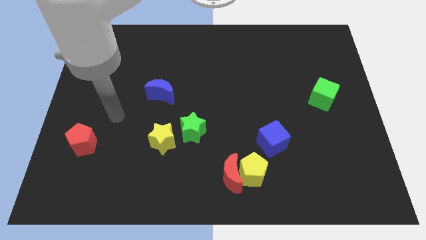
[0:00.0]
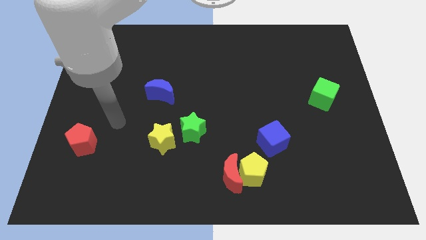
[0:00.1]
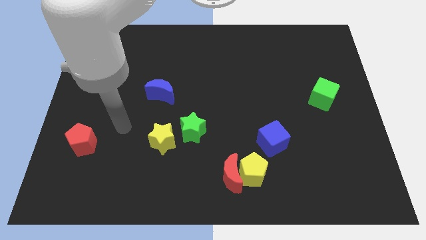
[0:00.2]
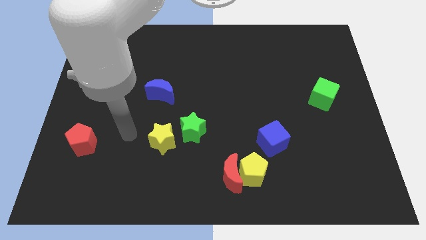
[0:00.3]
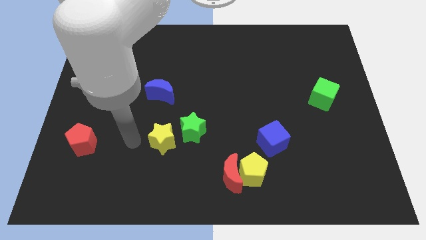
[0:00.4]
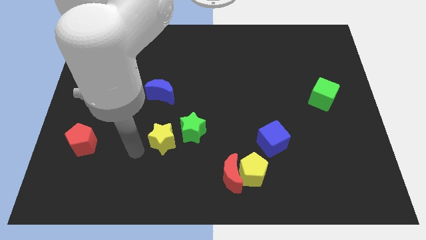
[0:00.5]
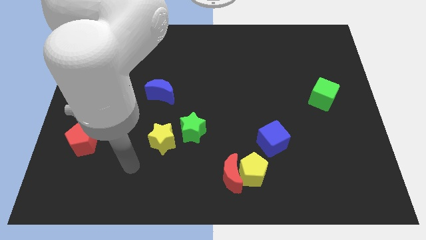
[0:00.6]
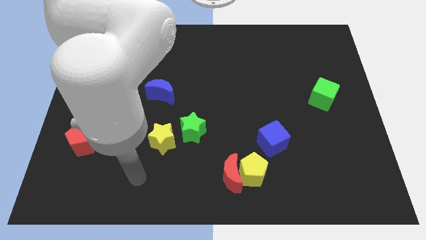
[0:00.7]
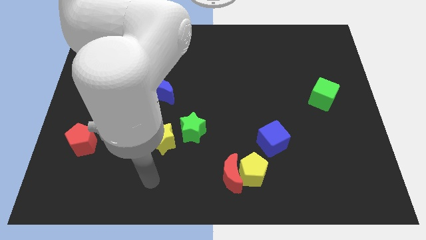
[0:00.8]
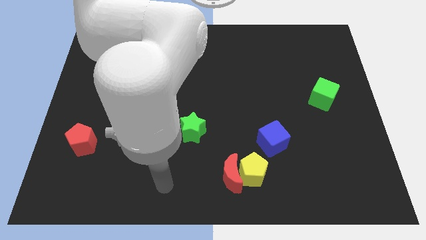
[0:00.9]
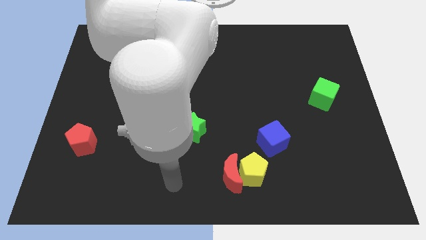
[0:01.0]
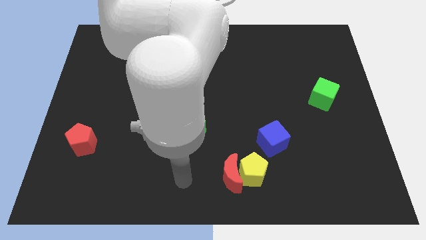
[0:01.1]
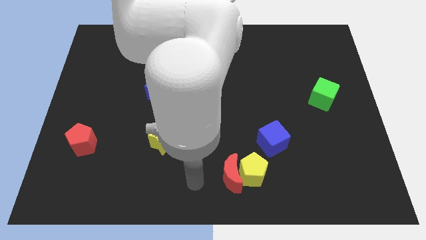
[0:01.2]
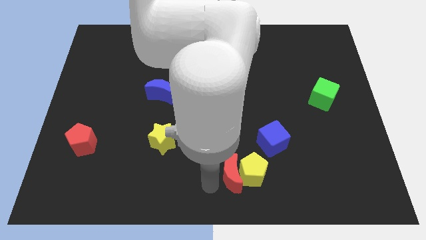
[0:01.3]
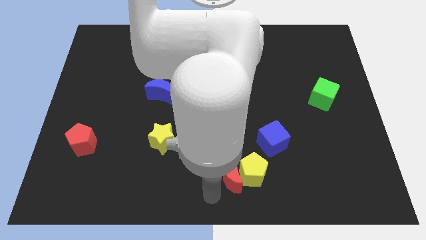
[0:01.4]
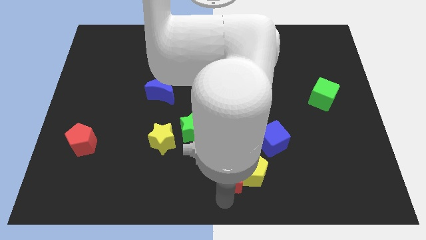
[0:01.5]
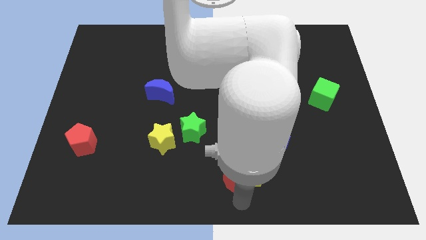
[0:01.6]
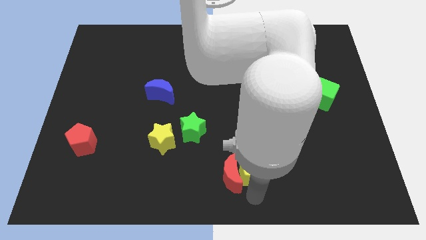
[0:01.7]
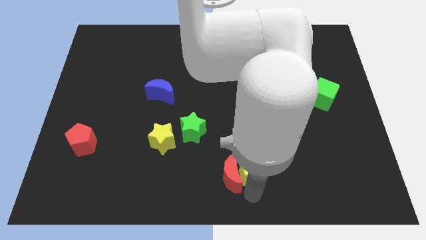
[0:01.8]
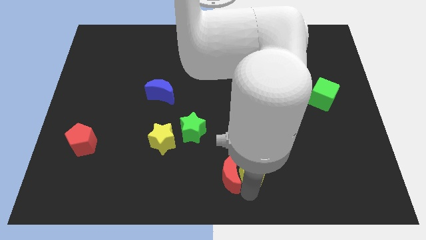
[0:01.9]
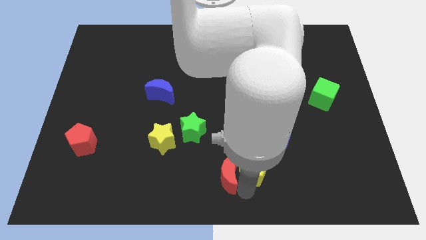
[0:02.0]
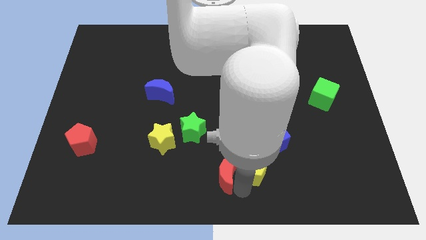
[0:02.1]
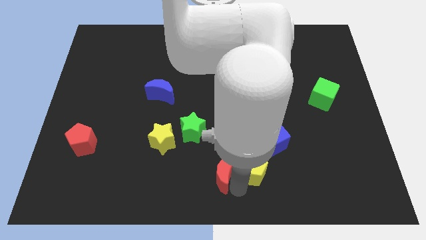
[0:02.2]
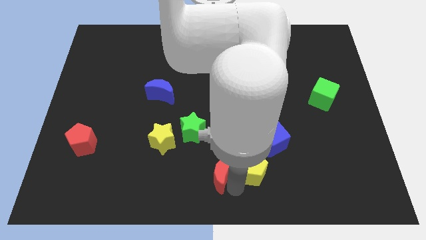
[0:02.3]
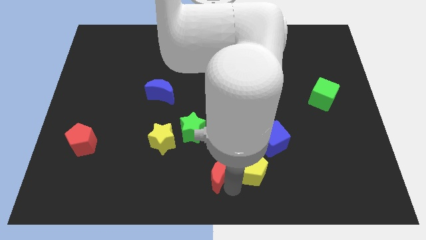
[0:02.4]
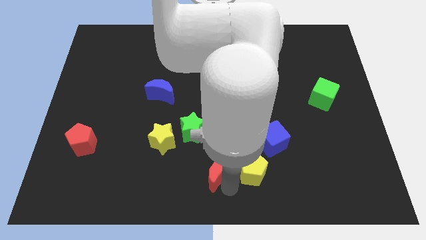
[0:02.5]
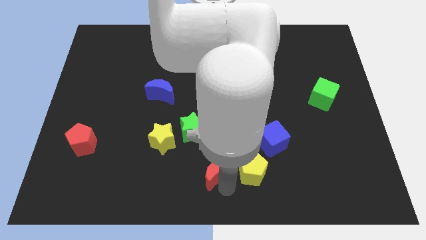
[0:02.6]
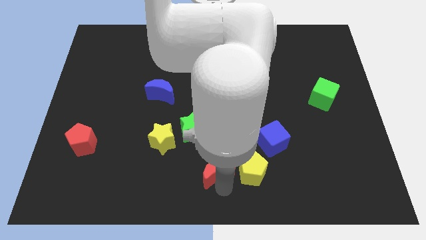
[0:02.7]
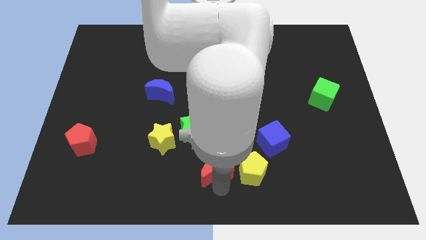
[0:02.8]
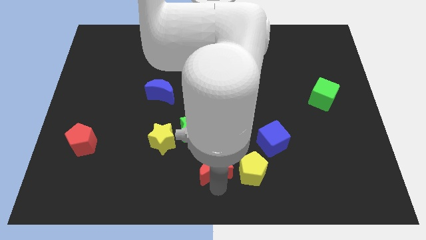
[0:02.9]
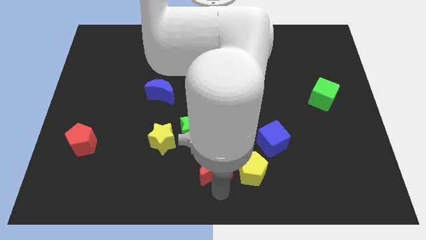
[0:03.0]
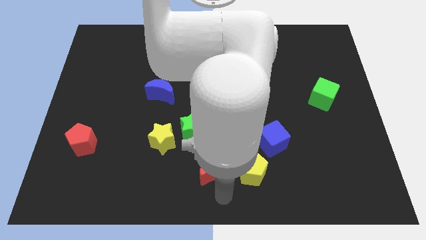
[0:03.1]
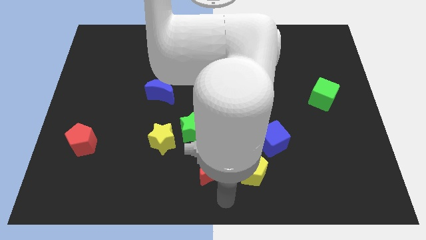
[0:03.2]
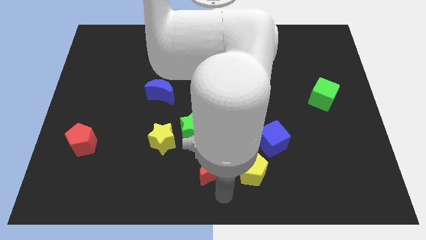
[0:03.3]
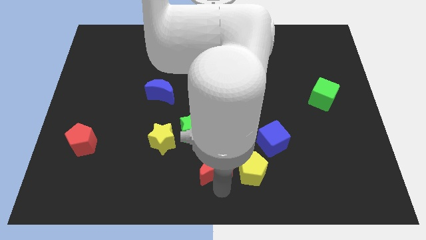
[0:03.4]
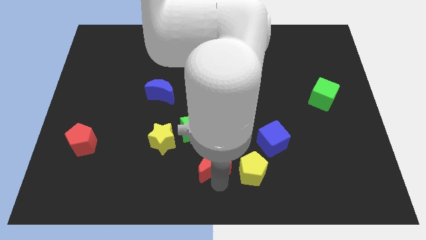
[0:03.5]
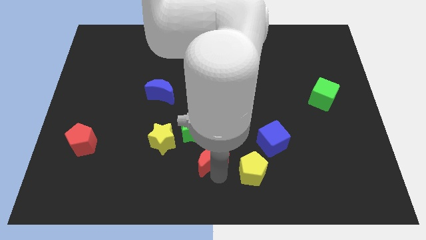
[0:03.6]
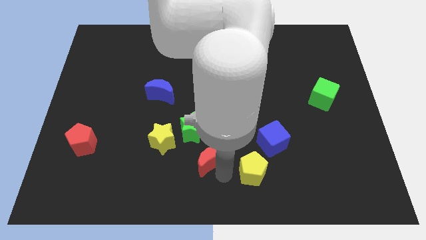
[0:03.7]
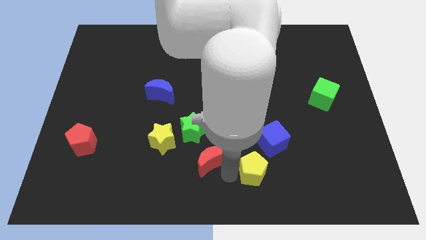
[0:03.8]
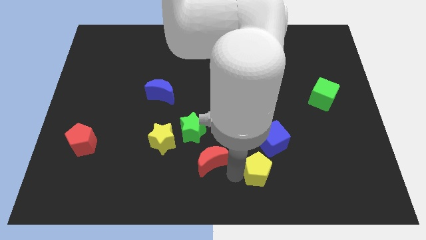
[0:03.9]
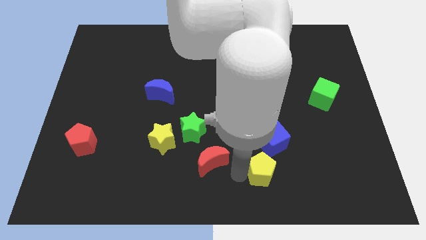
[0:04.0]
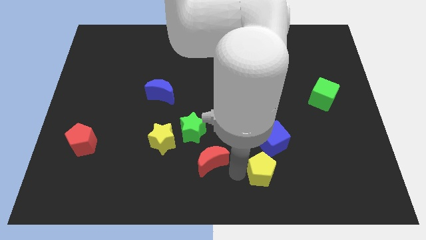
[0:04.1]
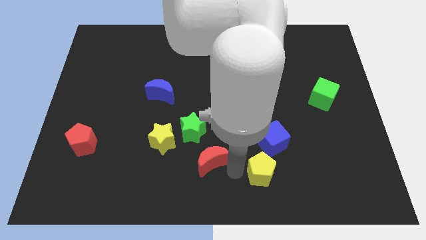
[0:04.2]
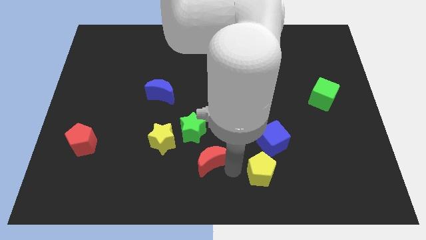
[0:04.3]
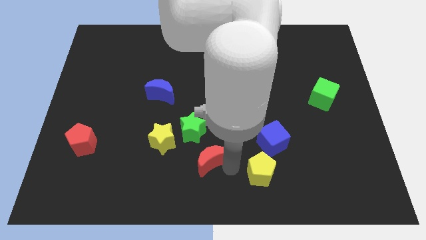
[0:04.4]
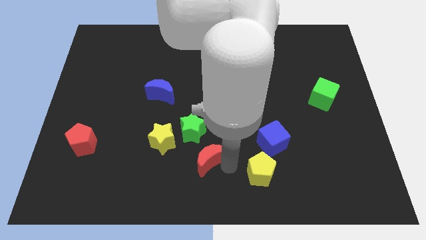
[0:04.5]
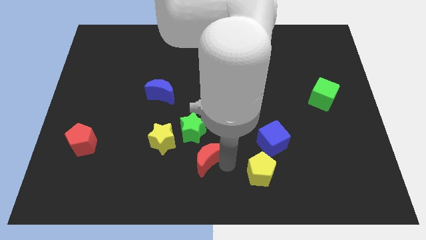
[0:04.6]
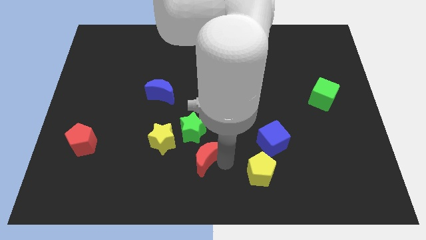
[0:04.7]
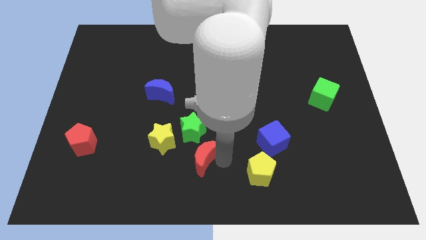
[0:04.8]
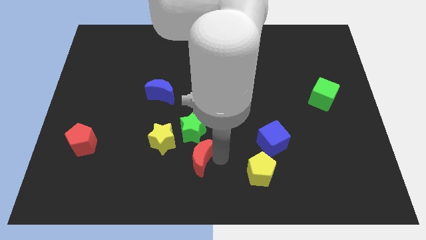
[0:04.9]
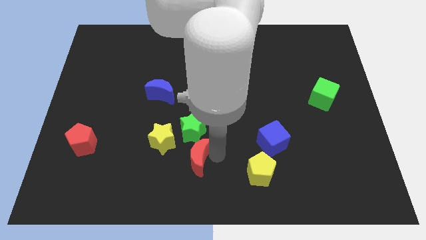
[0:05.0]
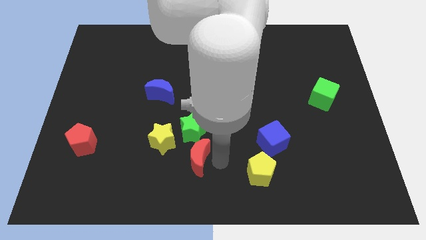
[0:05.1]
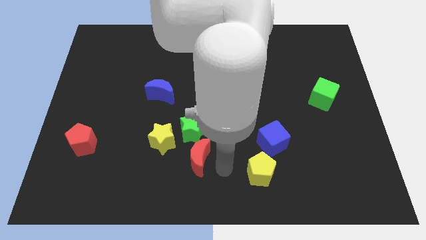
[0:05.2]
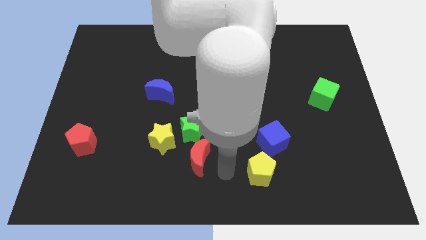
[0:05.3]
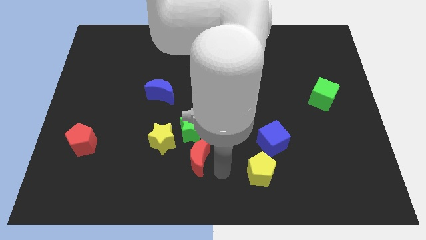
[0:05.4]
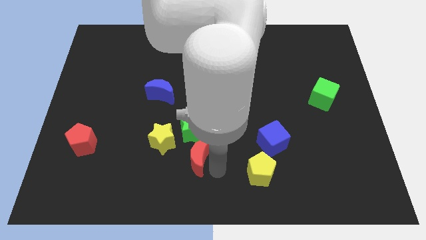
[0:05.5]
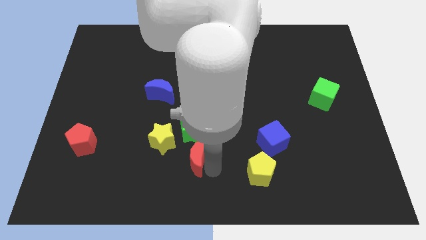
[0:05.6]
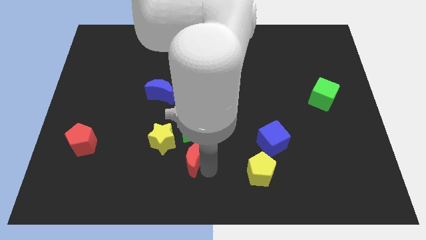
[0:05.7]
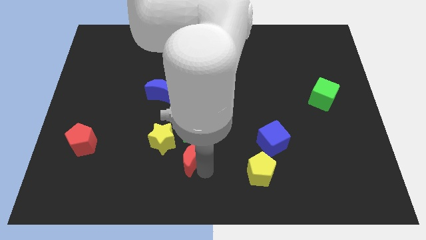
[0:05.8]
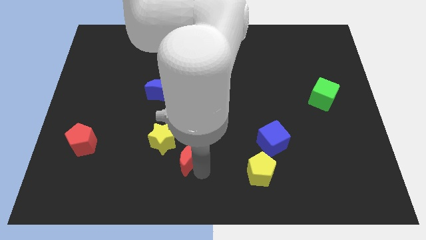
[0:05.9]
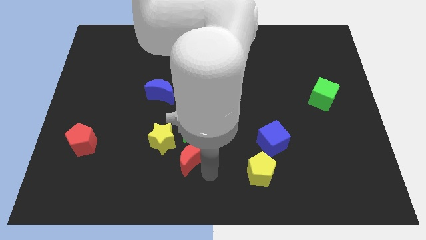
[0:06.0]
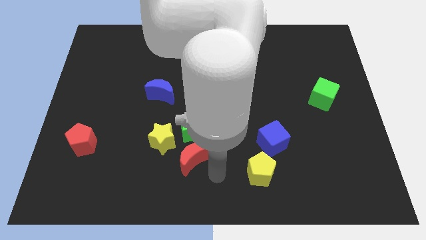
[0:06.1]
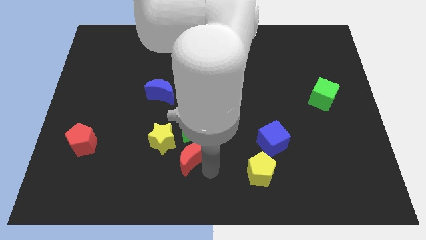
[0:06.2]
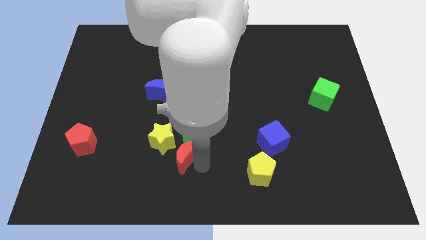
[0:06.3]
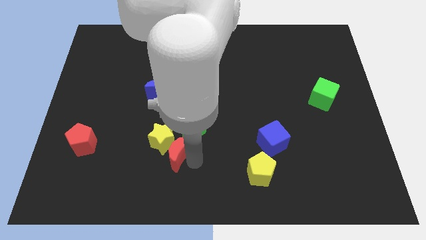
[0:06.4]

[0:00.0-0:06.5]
put the red moon to the yellow star
